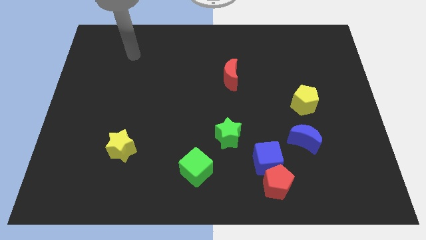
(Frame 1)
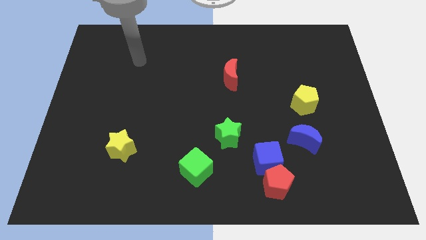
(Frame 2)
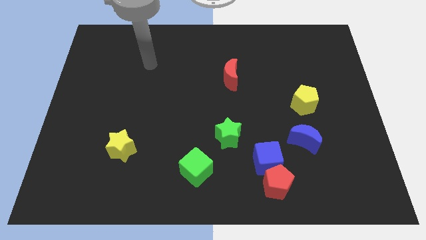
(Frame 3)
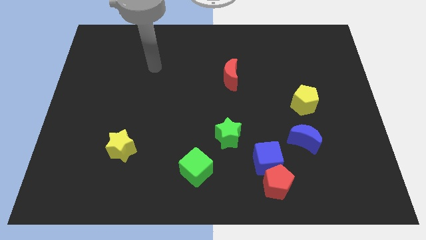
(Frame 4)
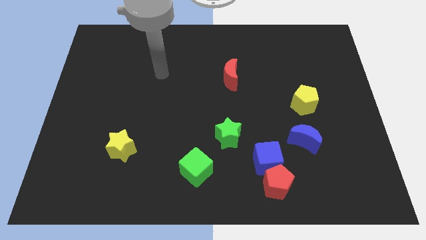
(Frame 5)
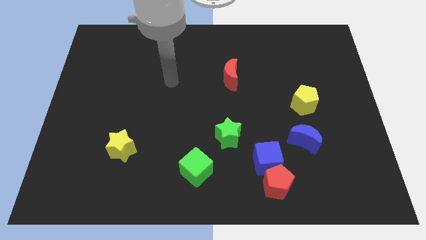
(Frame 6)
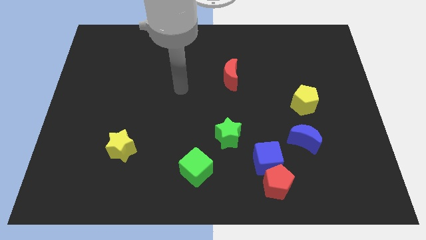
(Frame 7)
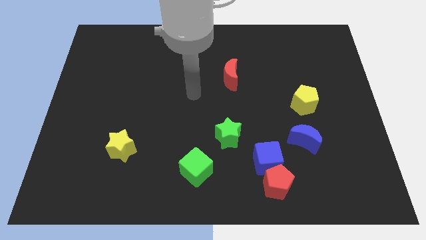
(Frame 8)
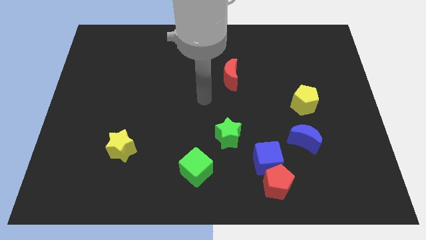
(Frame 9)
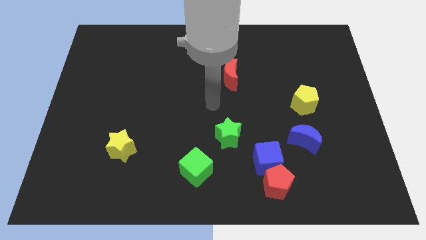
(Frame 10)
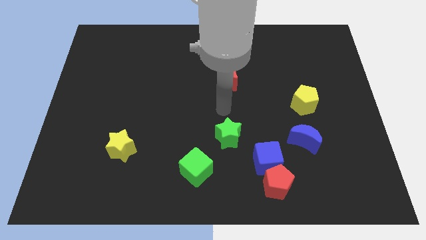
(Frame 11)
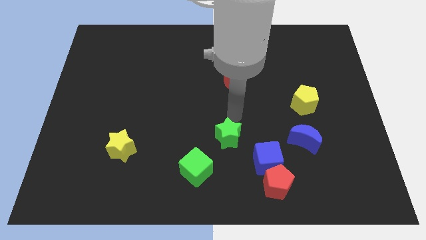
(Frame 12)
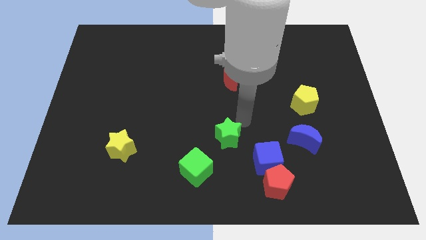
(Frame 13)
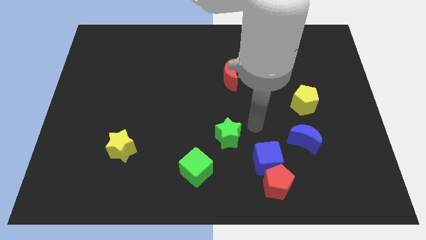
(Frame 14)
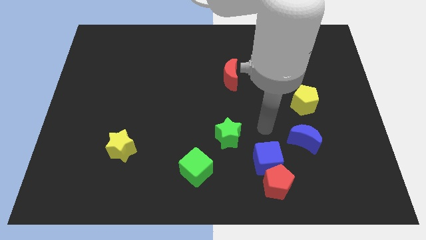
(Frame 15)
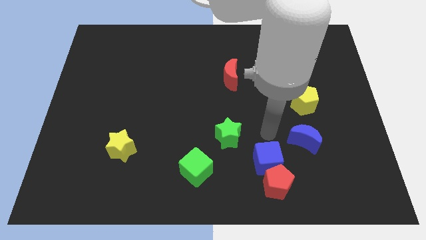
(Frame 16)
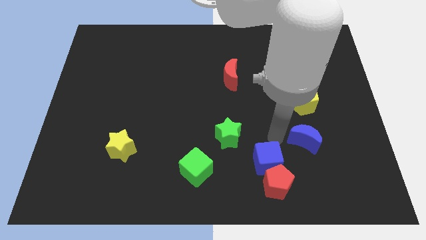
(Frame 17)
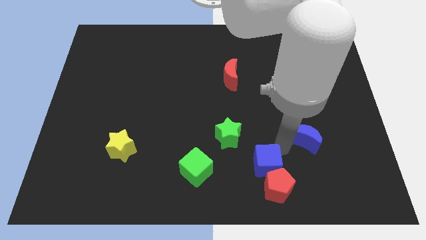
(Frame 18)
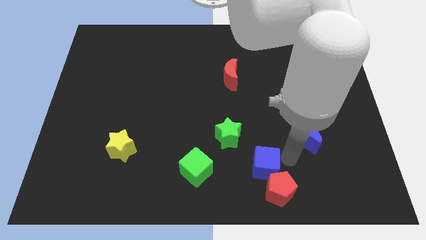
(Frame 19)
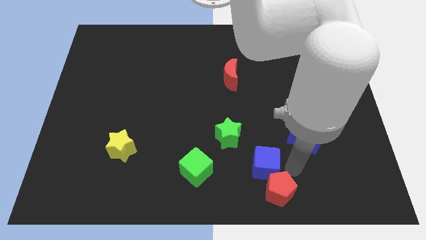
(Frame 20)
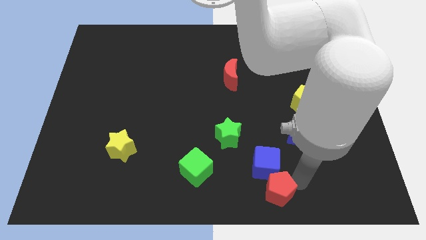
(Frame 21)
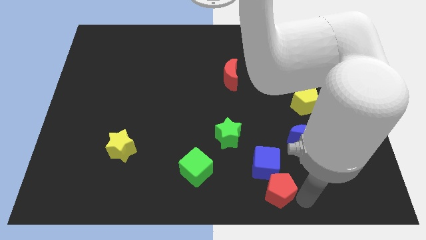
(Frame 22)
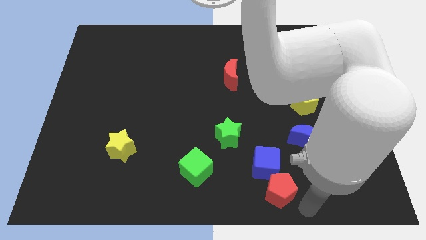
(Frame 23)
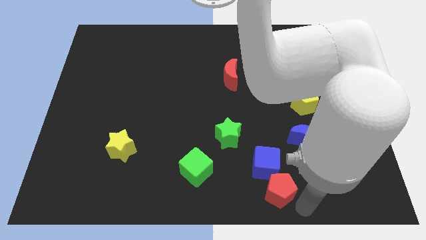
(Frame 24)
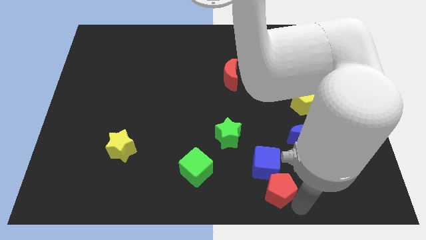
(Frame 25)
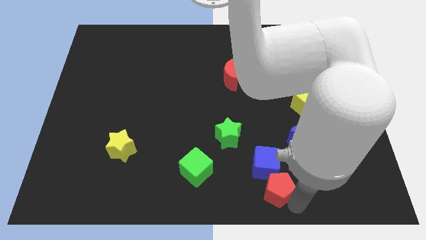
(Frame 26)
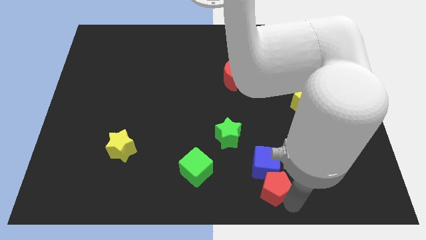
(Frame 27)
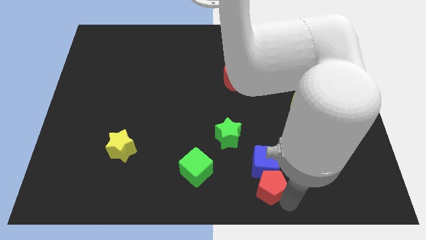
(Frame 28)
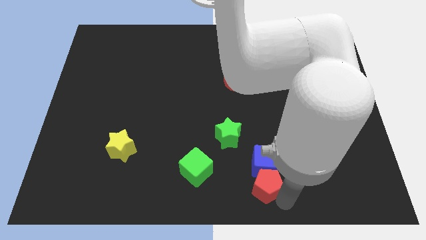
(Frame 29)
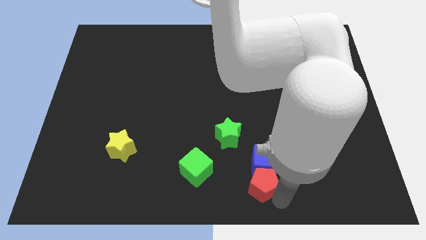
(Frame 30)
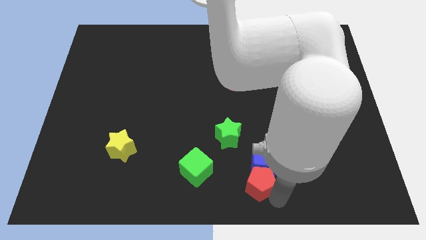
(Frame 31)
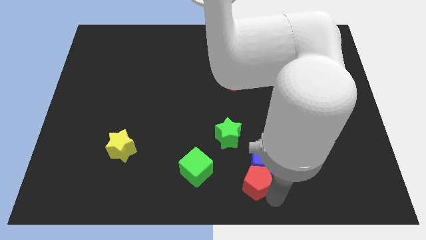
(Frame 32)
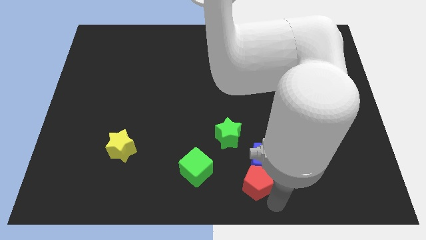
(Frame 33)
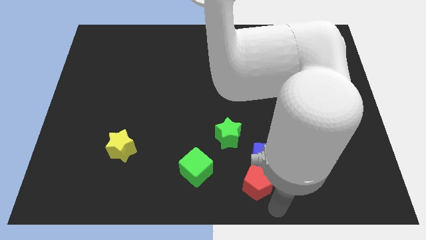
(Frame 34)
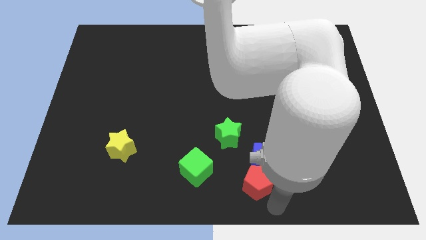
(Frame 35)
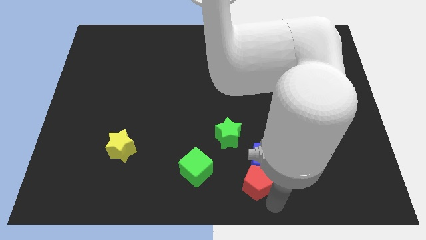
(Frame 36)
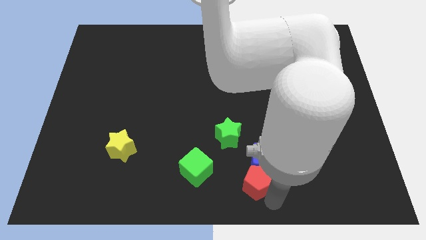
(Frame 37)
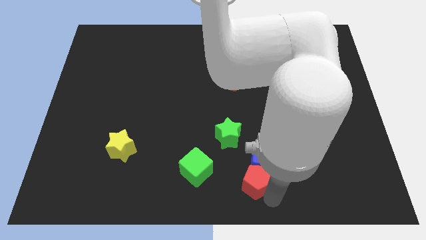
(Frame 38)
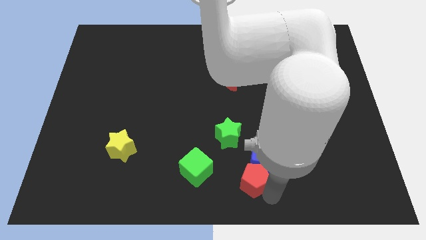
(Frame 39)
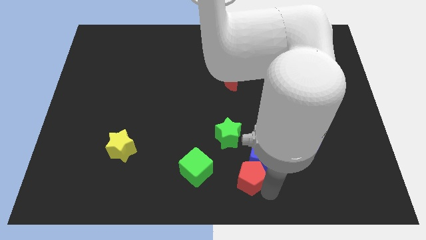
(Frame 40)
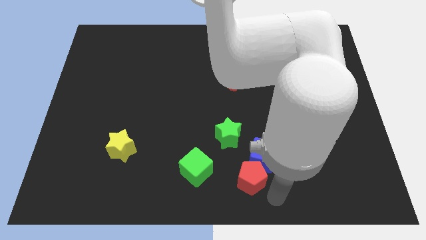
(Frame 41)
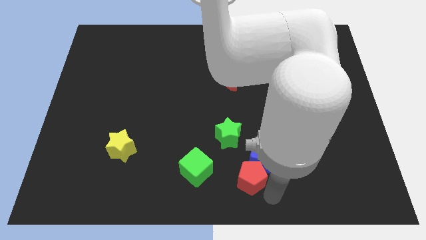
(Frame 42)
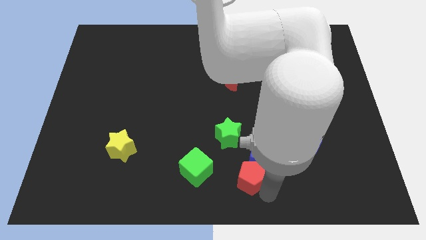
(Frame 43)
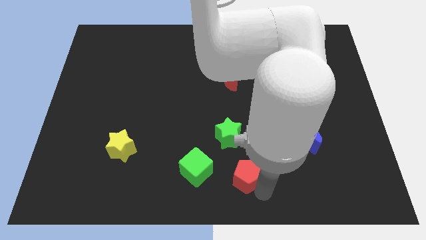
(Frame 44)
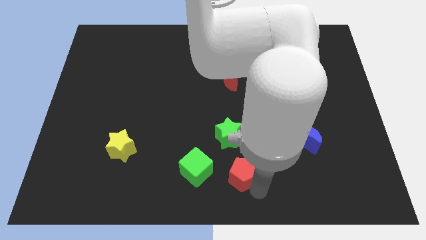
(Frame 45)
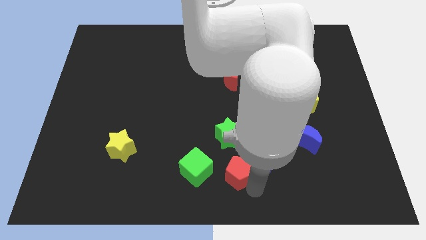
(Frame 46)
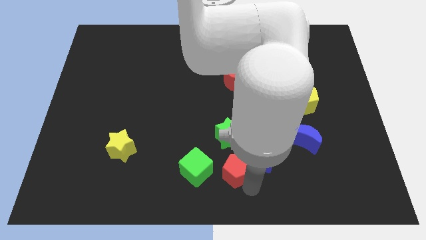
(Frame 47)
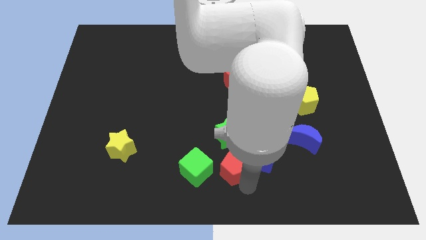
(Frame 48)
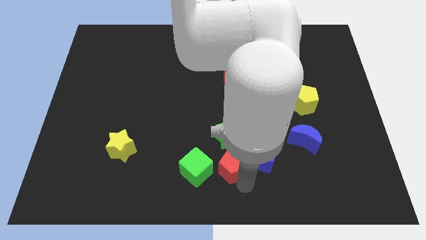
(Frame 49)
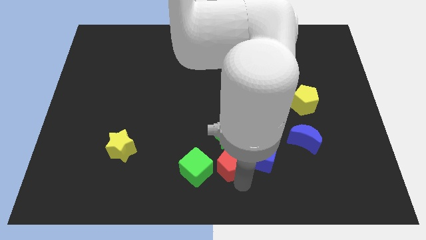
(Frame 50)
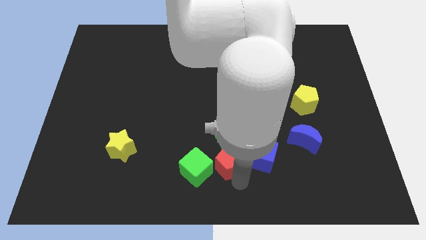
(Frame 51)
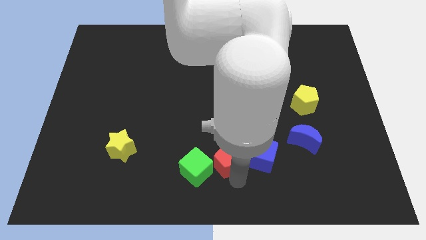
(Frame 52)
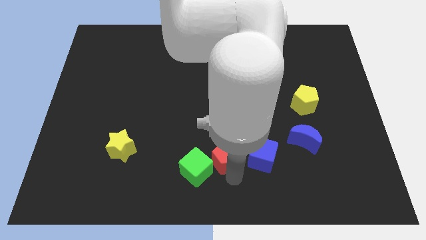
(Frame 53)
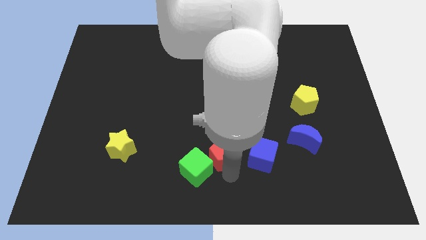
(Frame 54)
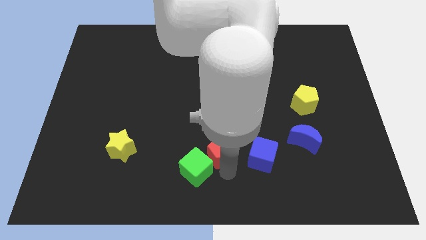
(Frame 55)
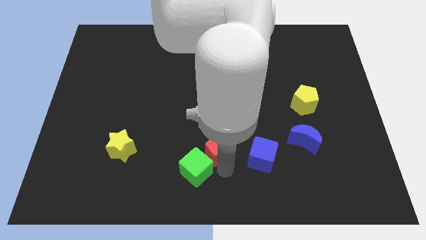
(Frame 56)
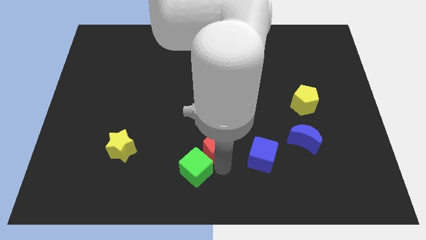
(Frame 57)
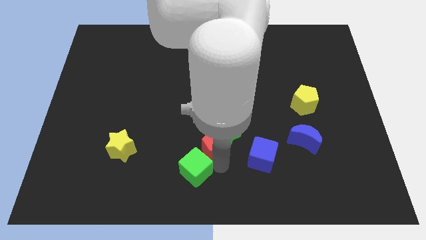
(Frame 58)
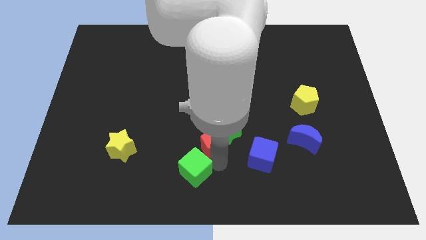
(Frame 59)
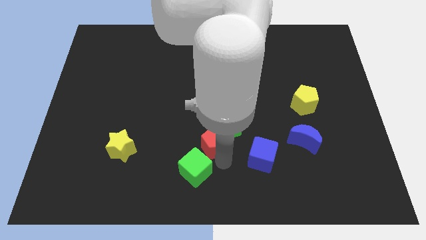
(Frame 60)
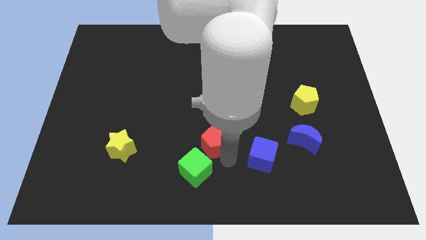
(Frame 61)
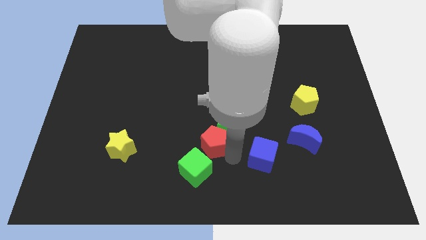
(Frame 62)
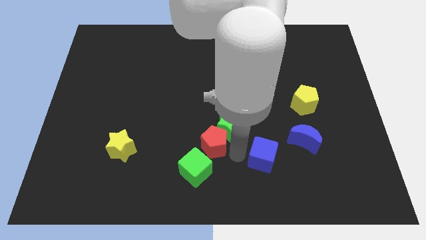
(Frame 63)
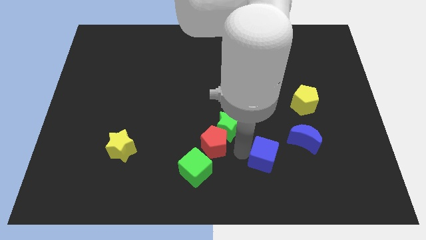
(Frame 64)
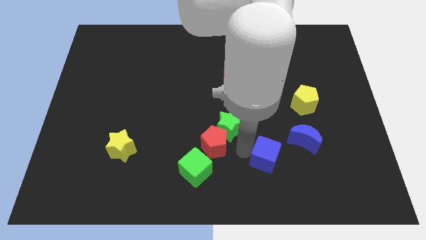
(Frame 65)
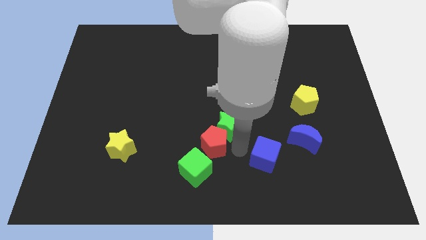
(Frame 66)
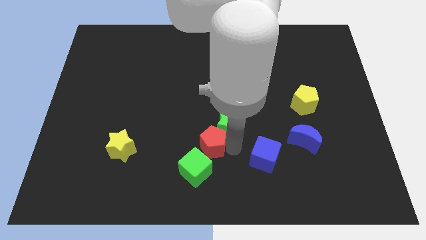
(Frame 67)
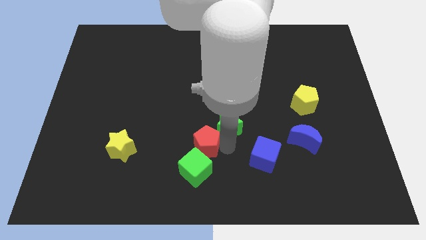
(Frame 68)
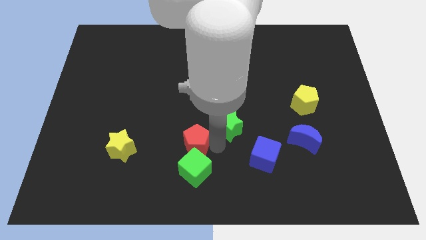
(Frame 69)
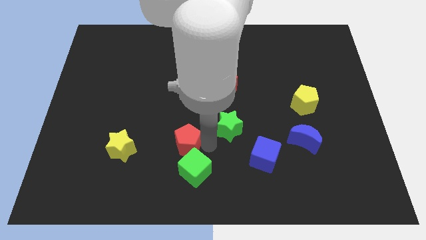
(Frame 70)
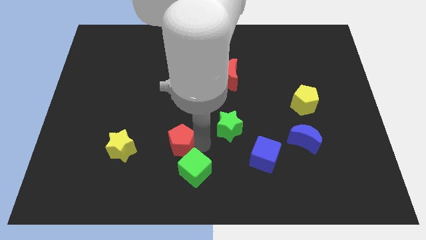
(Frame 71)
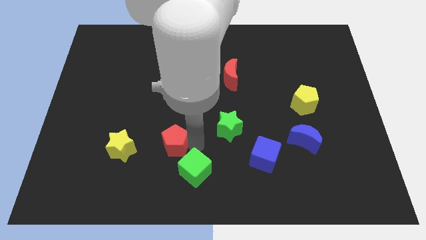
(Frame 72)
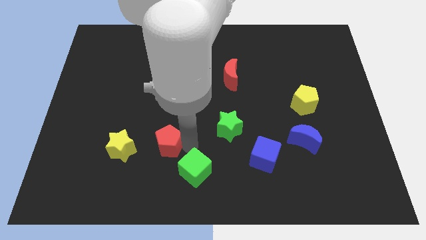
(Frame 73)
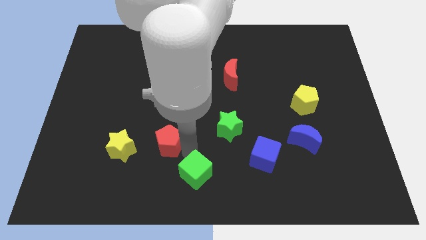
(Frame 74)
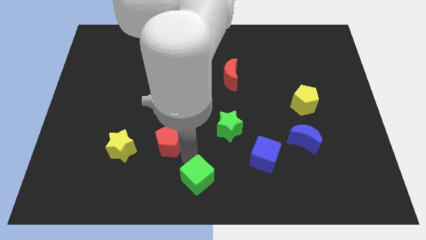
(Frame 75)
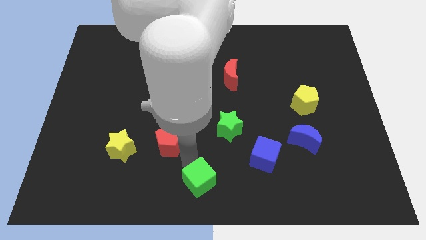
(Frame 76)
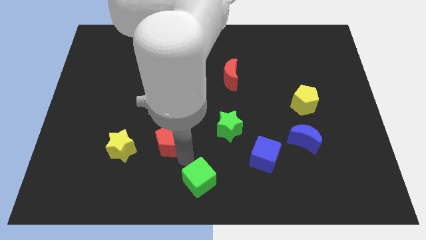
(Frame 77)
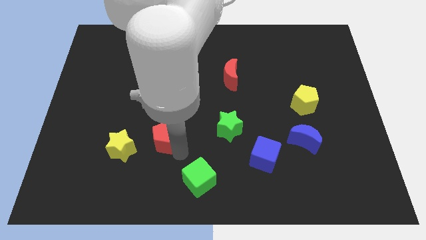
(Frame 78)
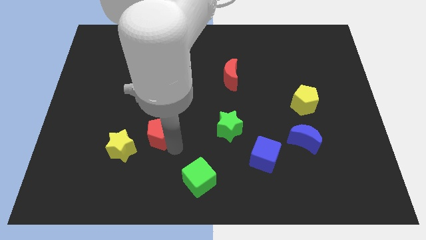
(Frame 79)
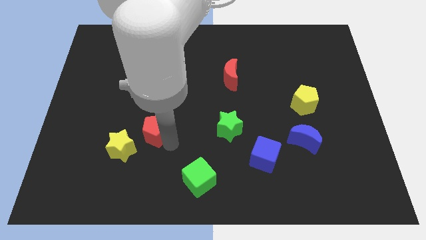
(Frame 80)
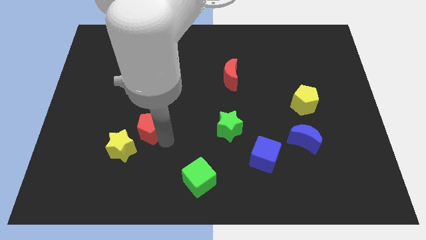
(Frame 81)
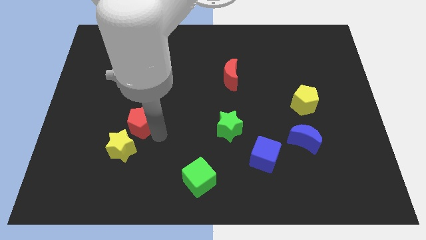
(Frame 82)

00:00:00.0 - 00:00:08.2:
put the red pentagon to the top side of the yellow star
